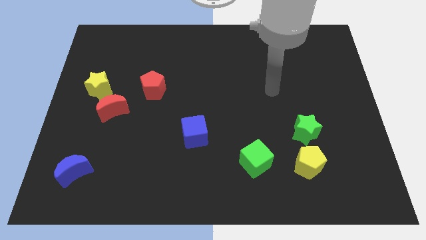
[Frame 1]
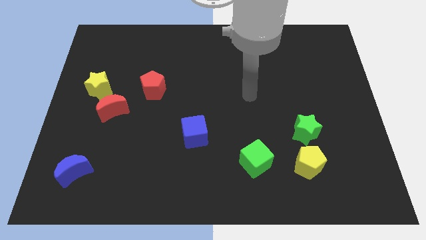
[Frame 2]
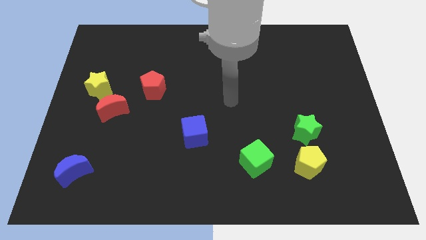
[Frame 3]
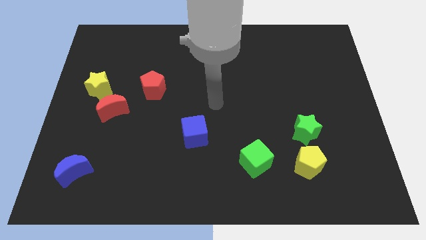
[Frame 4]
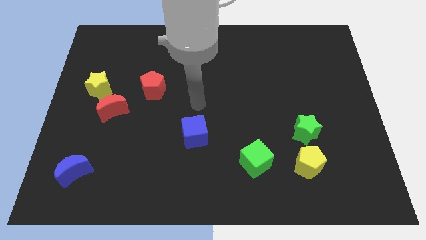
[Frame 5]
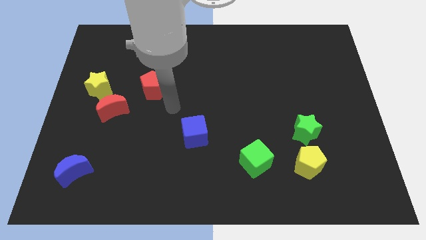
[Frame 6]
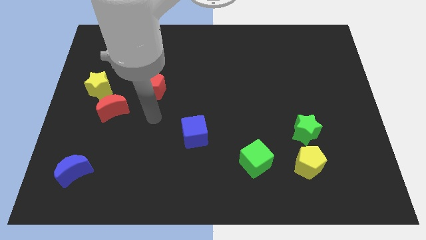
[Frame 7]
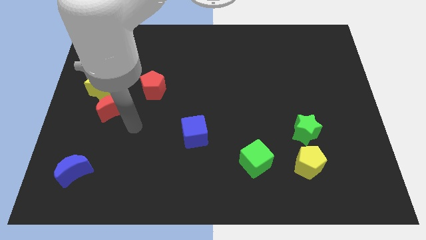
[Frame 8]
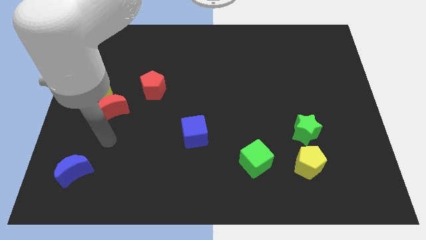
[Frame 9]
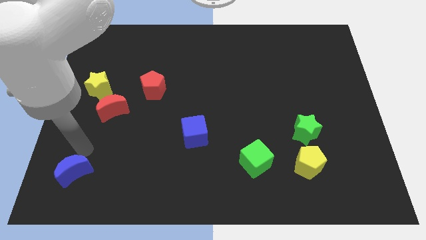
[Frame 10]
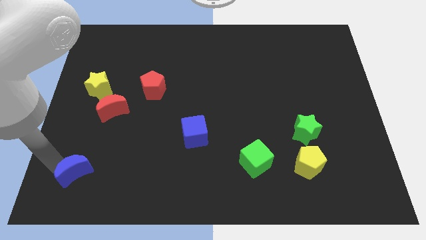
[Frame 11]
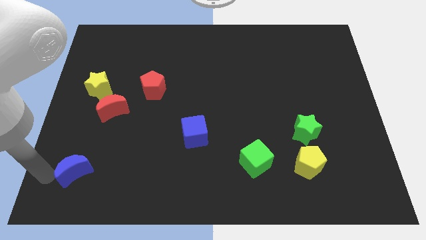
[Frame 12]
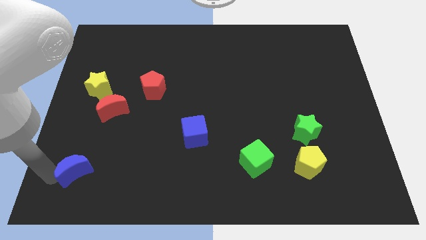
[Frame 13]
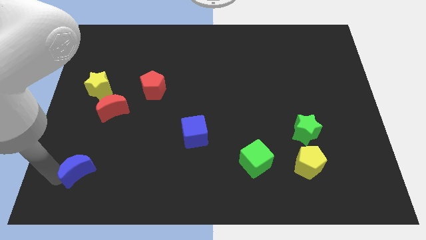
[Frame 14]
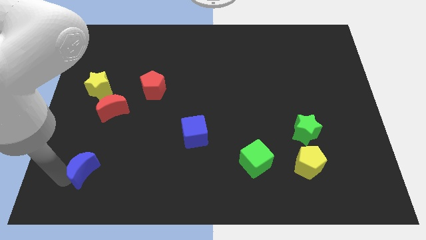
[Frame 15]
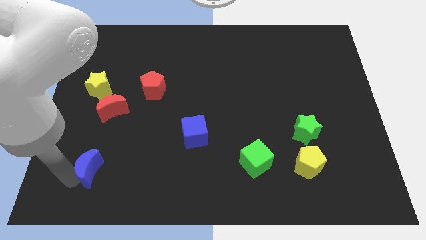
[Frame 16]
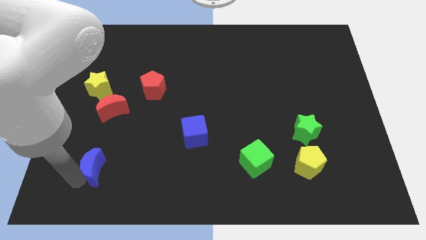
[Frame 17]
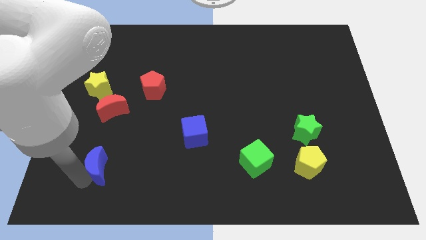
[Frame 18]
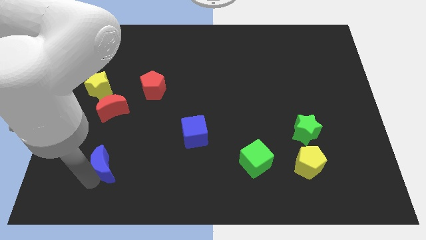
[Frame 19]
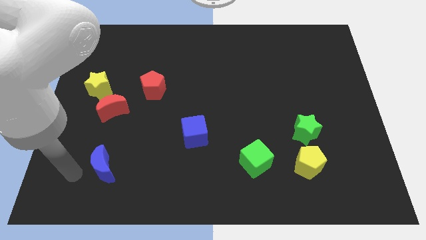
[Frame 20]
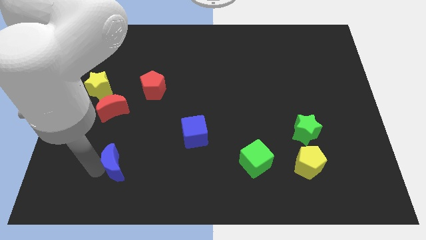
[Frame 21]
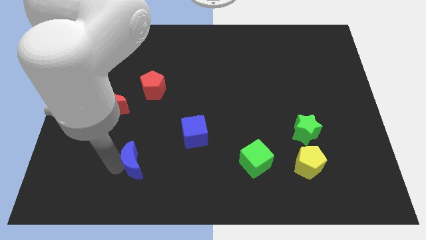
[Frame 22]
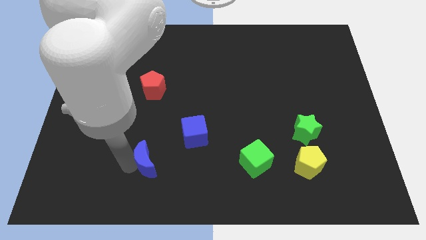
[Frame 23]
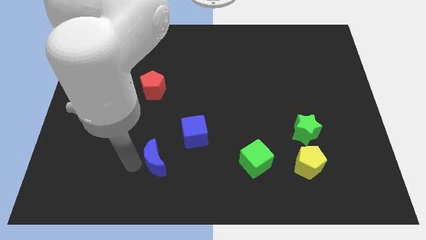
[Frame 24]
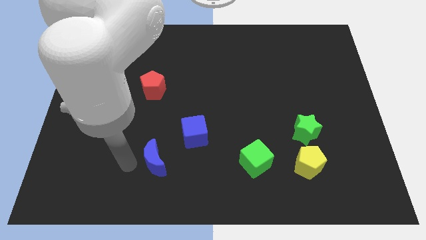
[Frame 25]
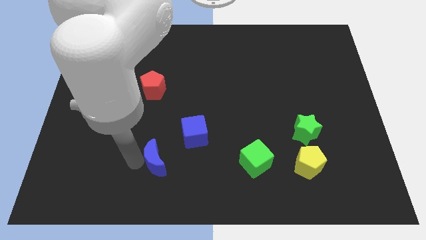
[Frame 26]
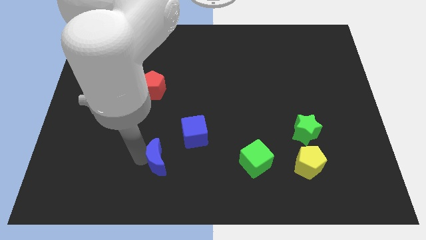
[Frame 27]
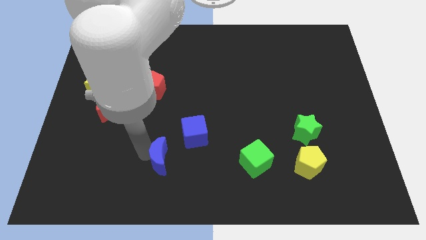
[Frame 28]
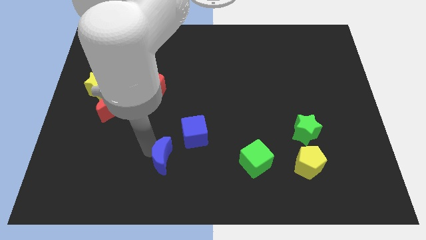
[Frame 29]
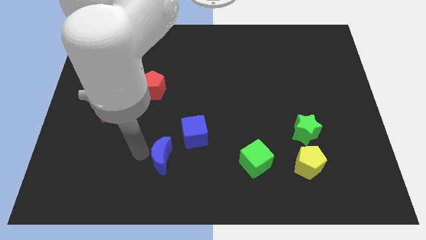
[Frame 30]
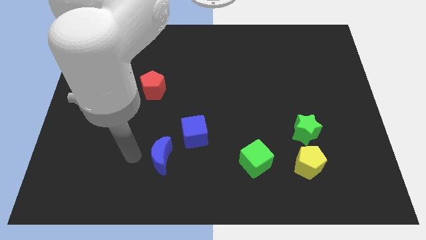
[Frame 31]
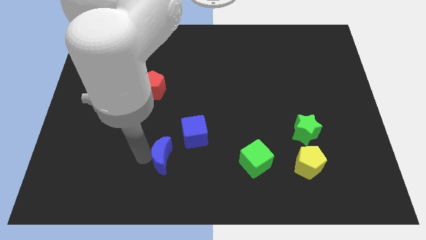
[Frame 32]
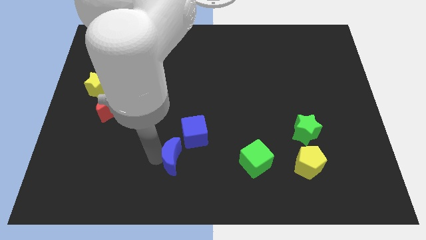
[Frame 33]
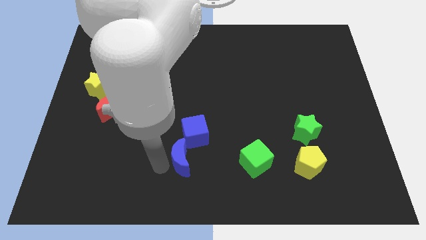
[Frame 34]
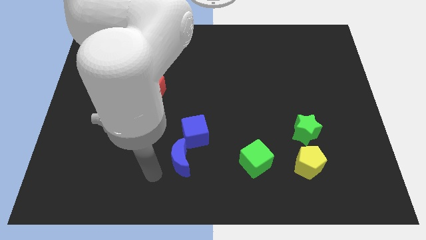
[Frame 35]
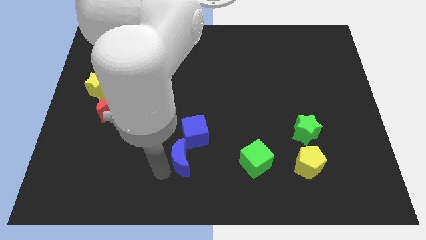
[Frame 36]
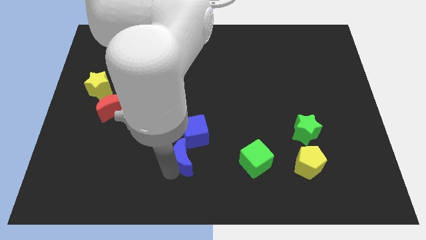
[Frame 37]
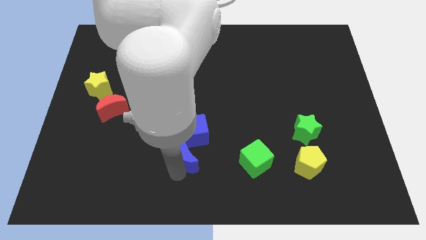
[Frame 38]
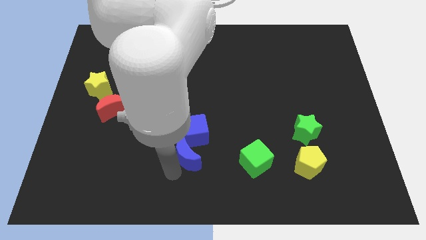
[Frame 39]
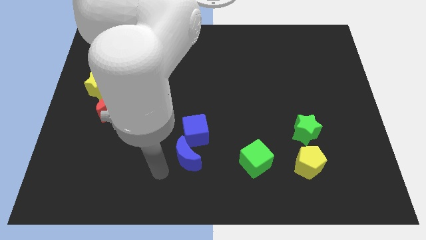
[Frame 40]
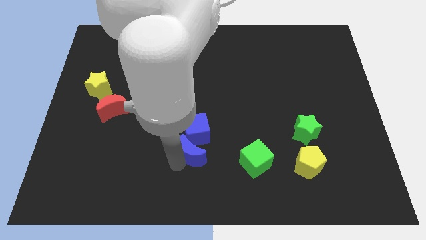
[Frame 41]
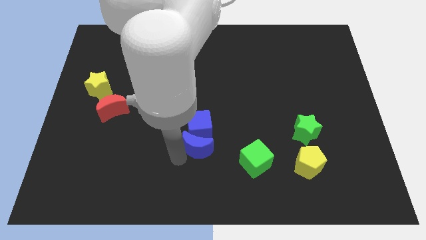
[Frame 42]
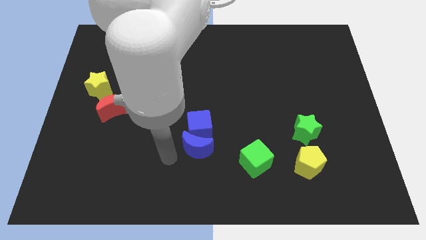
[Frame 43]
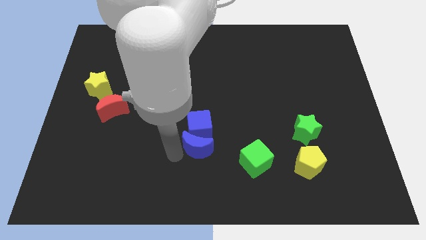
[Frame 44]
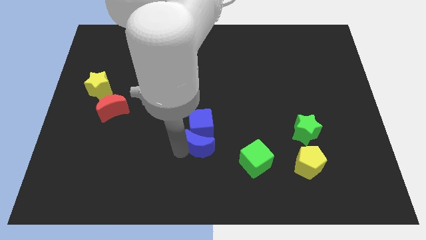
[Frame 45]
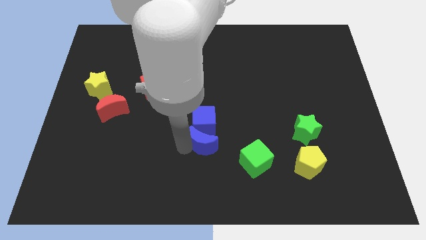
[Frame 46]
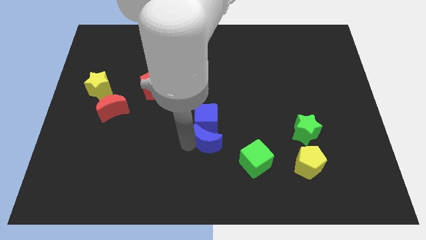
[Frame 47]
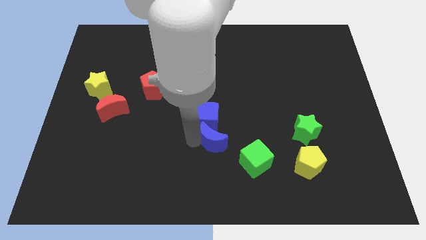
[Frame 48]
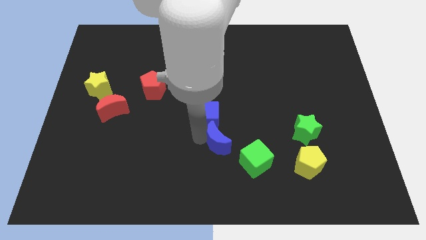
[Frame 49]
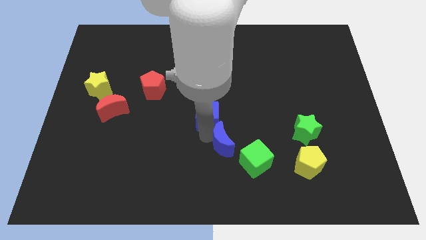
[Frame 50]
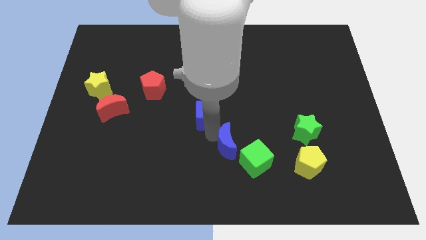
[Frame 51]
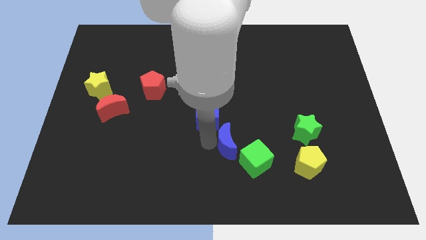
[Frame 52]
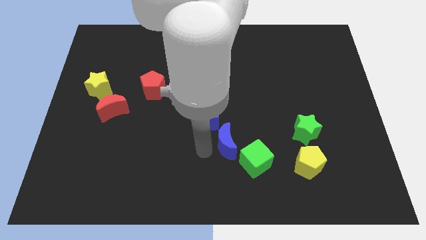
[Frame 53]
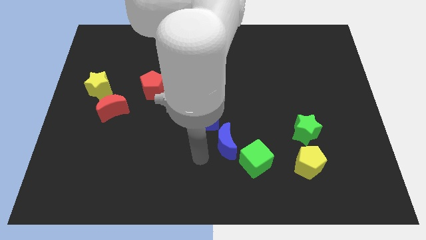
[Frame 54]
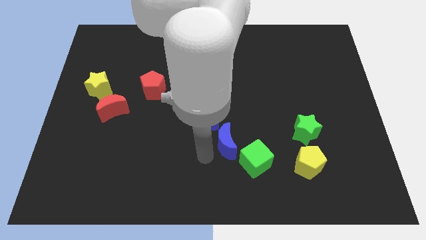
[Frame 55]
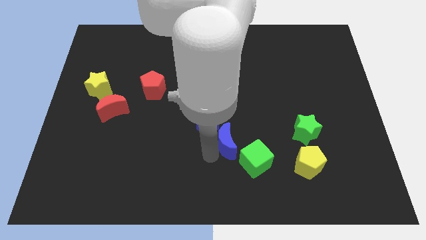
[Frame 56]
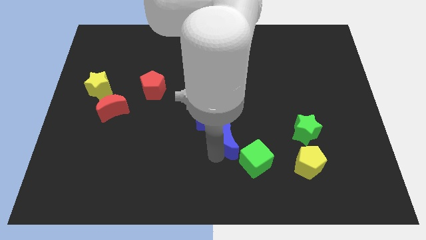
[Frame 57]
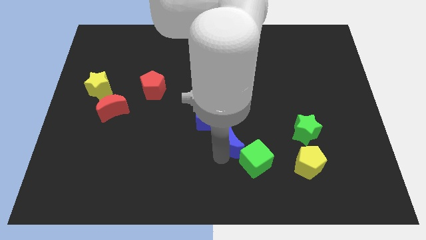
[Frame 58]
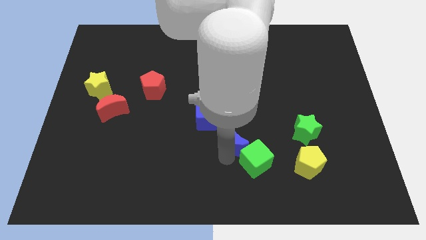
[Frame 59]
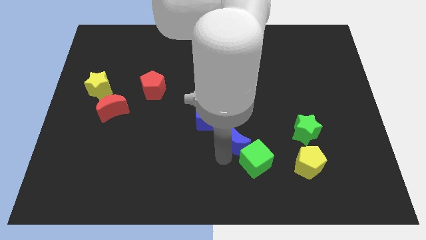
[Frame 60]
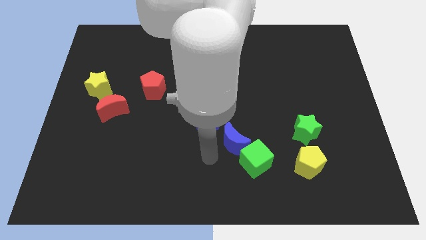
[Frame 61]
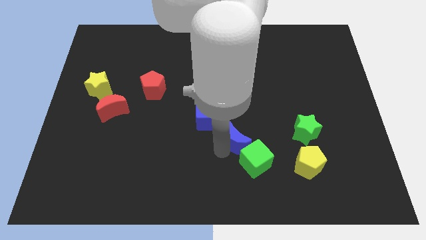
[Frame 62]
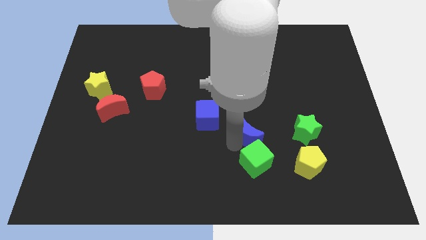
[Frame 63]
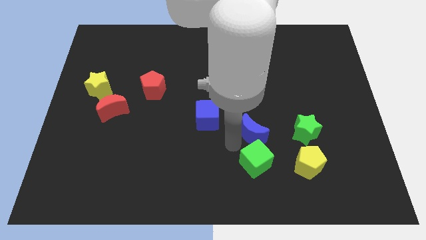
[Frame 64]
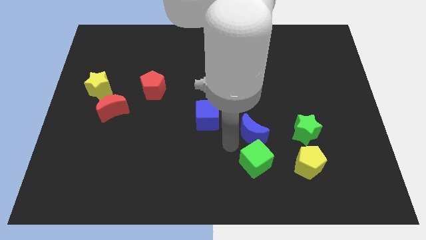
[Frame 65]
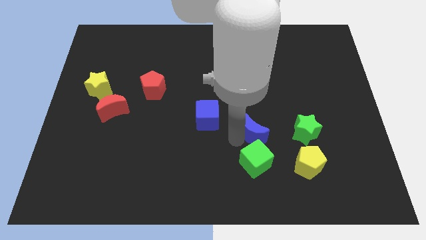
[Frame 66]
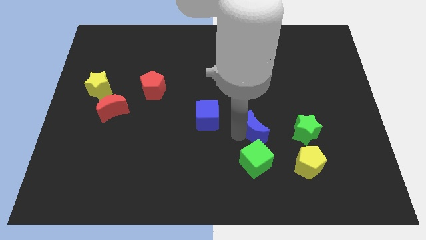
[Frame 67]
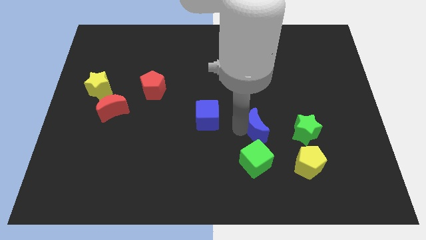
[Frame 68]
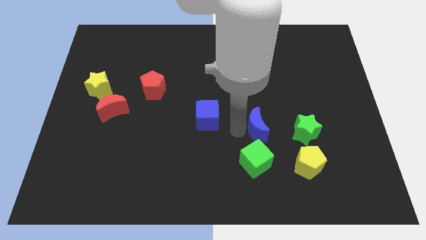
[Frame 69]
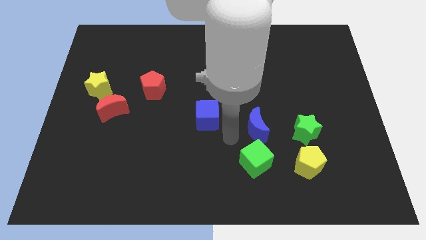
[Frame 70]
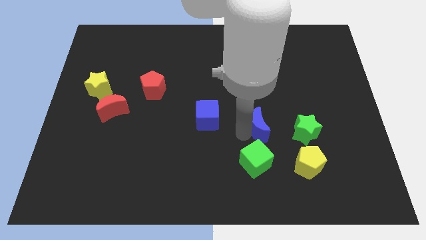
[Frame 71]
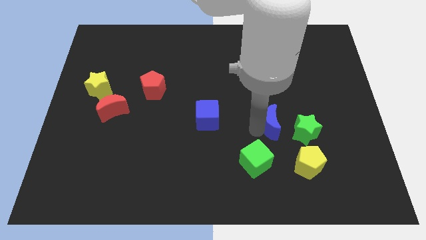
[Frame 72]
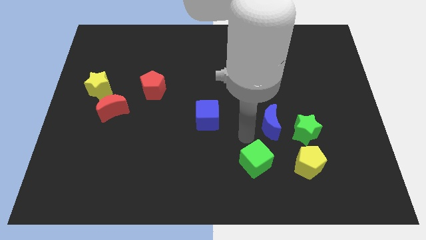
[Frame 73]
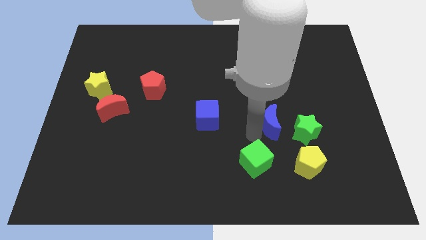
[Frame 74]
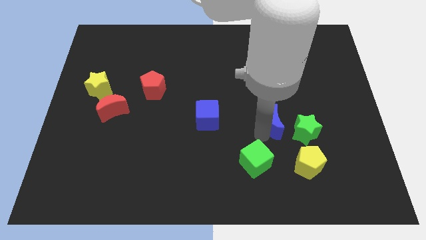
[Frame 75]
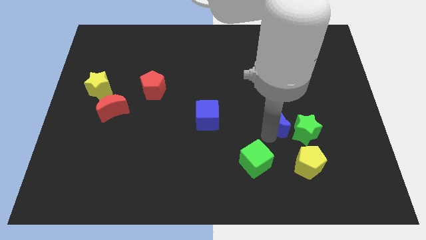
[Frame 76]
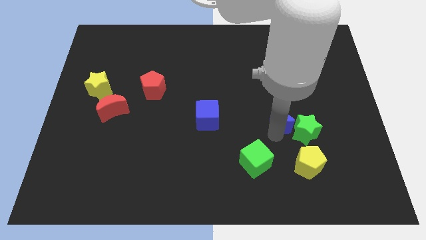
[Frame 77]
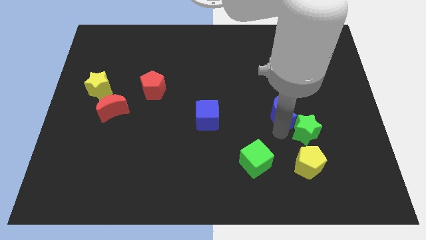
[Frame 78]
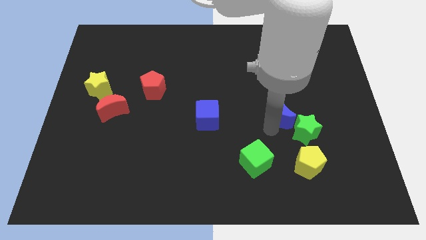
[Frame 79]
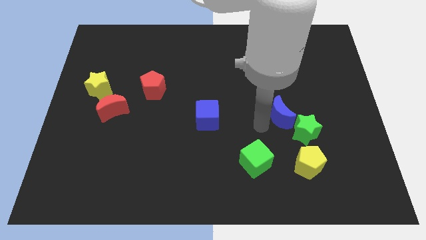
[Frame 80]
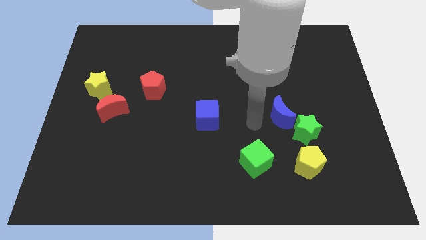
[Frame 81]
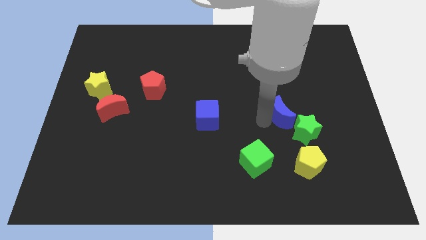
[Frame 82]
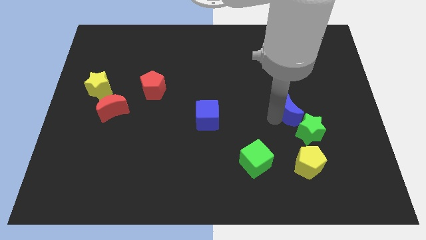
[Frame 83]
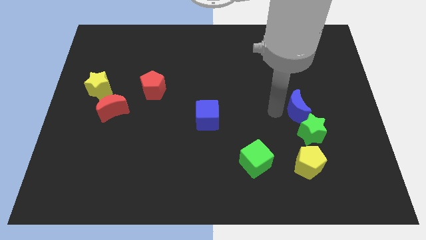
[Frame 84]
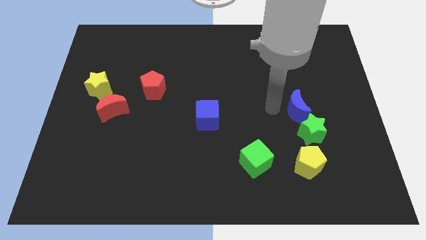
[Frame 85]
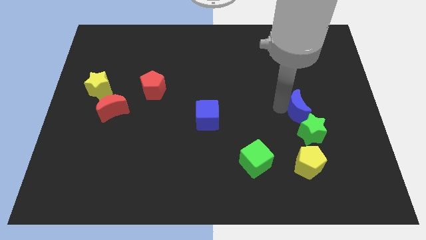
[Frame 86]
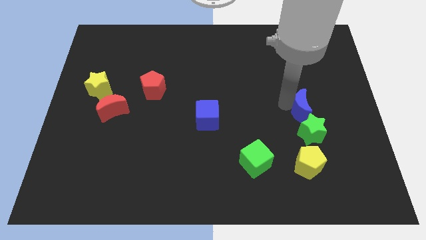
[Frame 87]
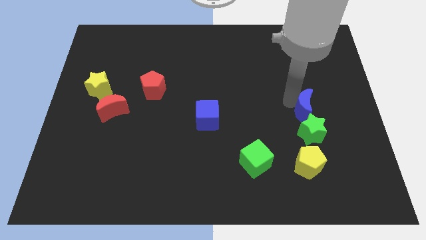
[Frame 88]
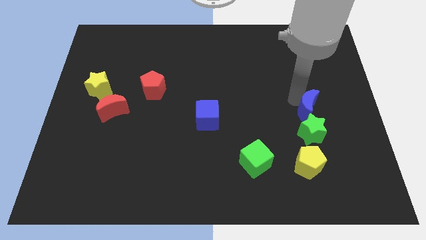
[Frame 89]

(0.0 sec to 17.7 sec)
move the blue moon diagonally up and to the right of the green star
